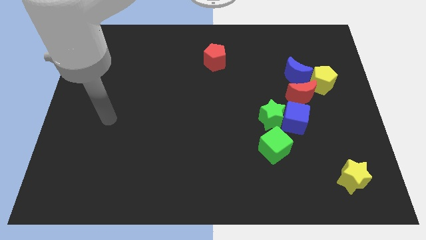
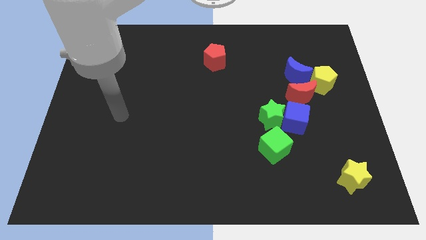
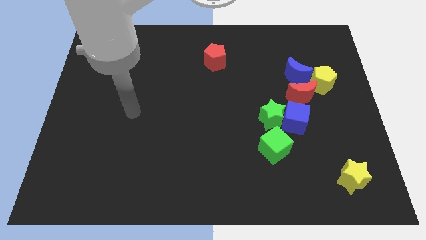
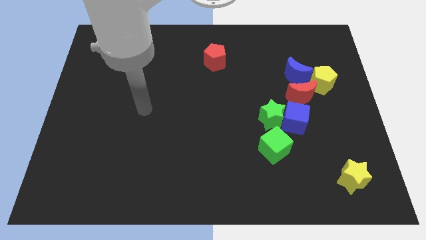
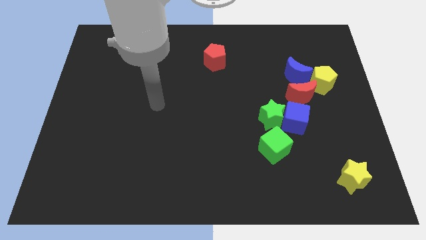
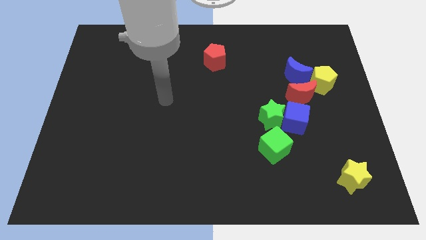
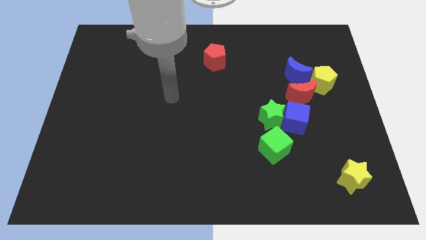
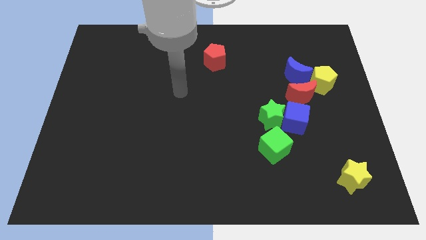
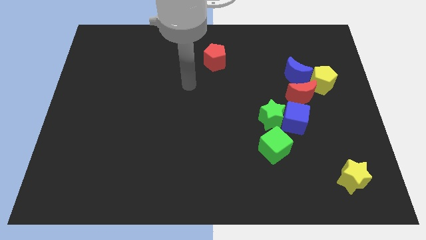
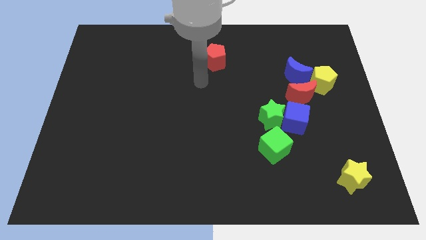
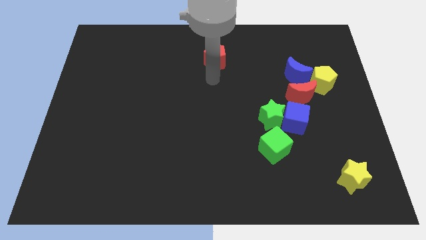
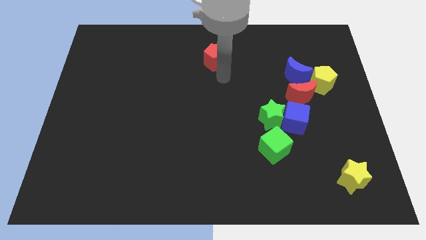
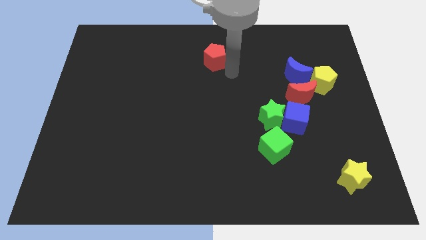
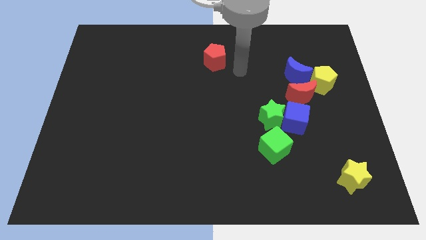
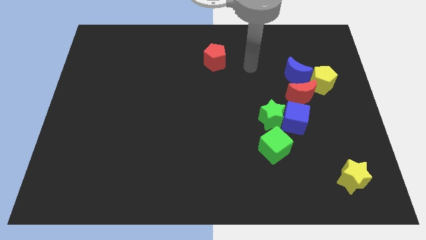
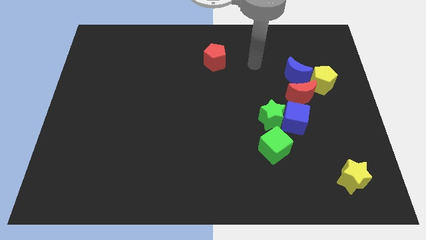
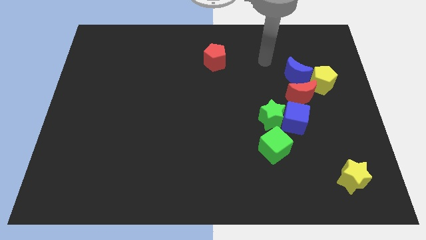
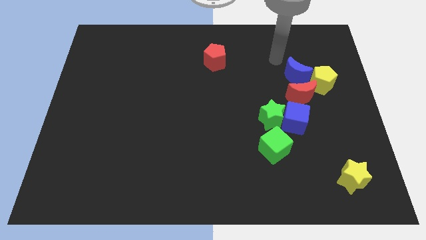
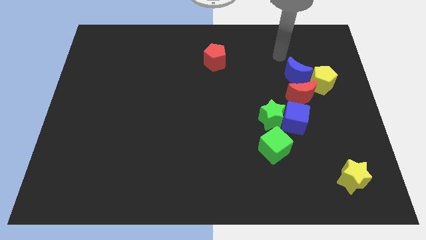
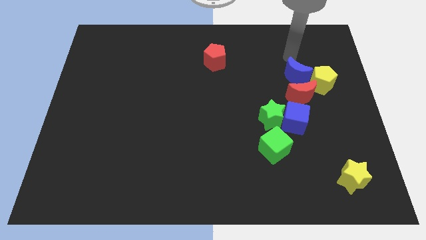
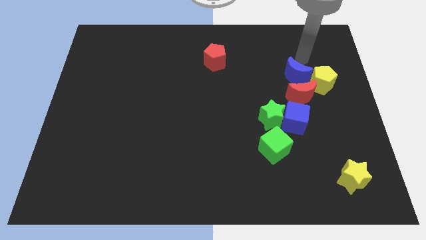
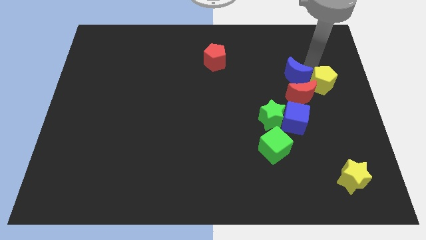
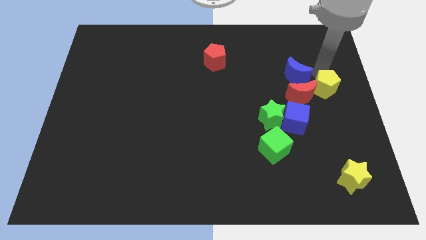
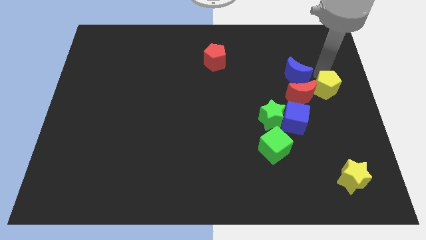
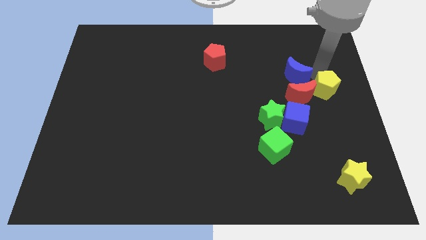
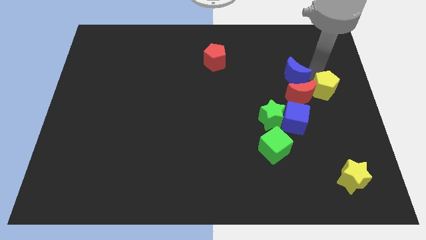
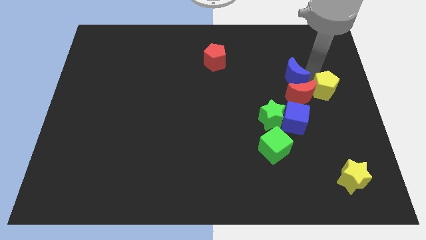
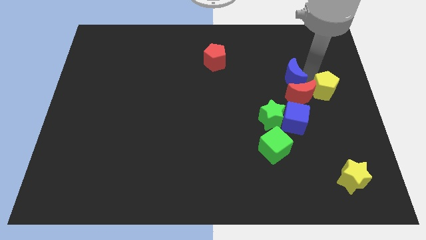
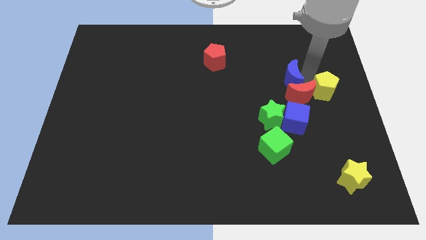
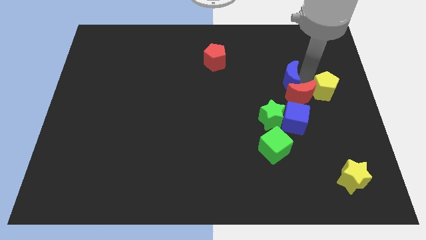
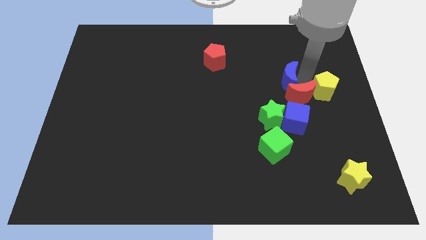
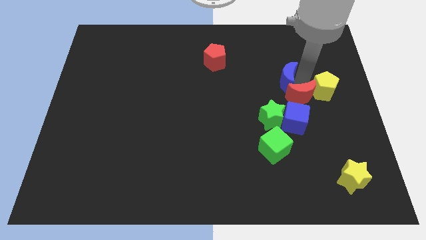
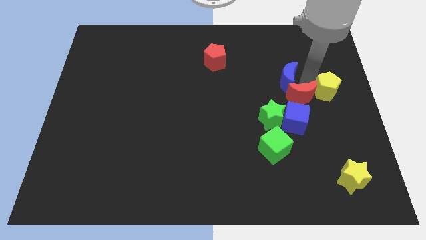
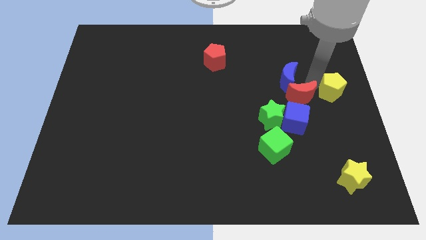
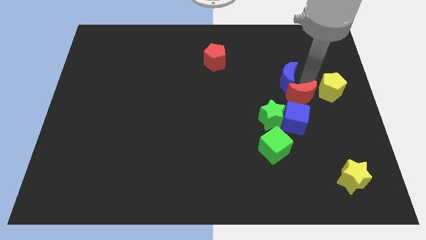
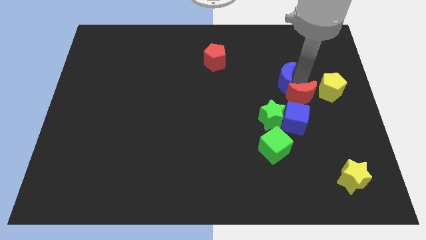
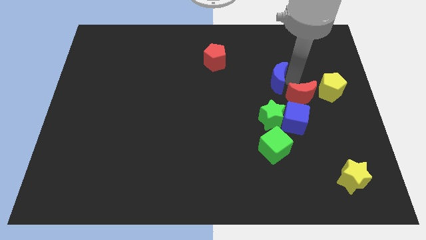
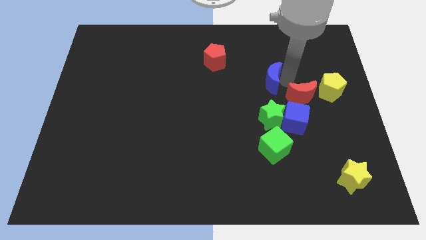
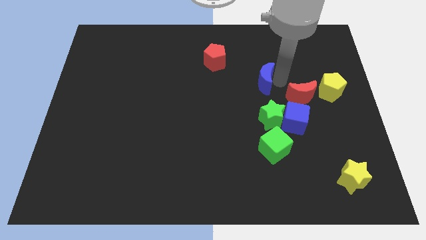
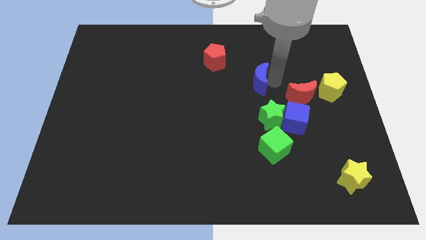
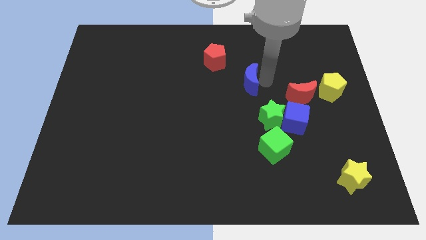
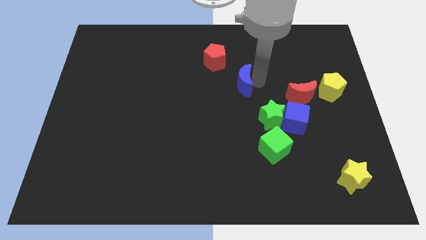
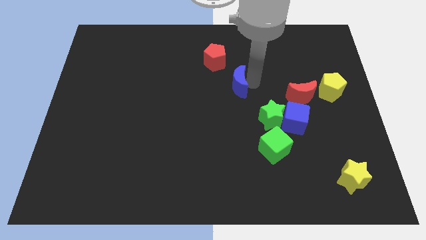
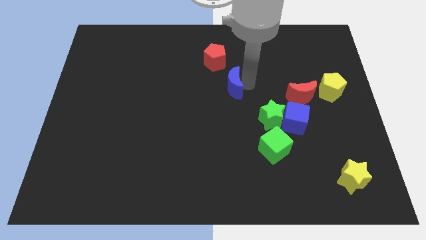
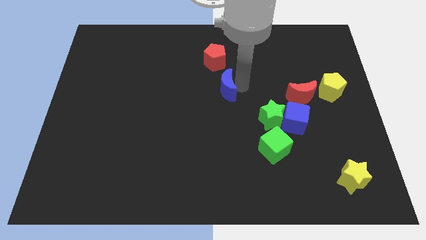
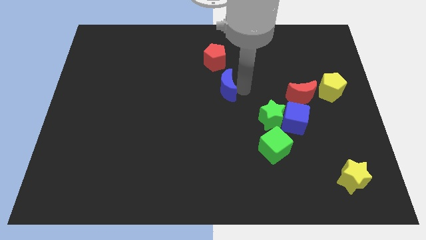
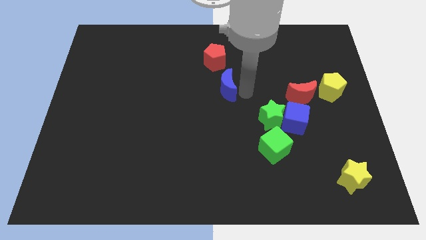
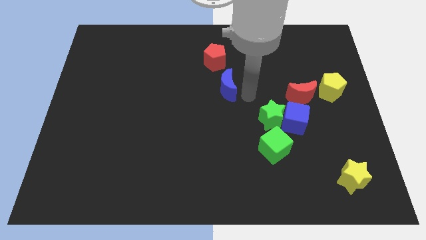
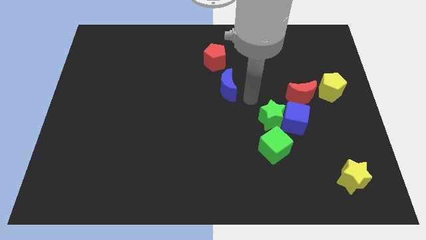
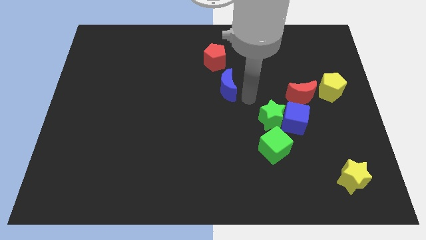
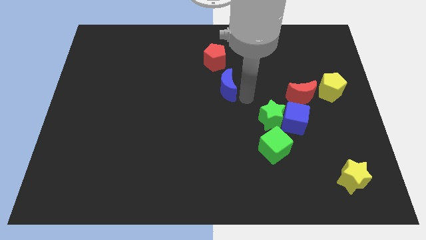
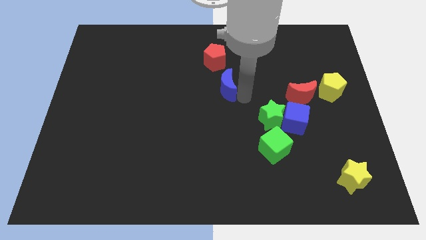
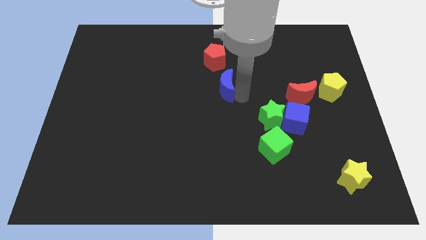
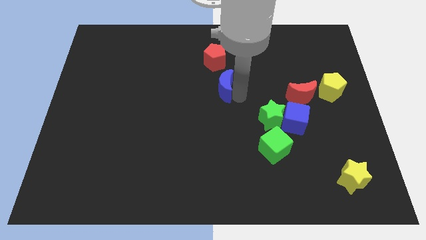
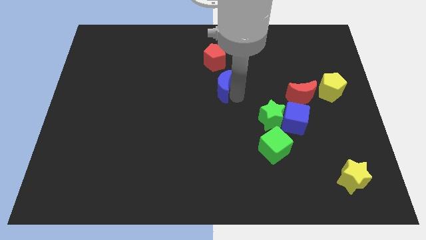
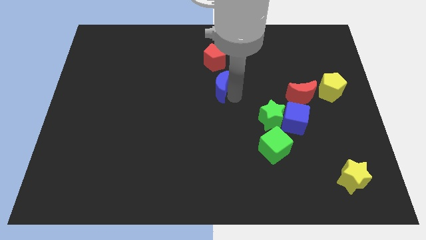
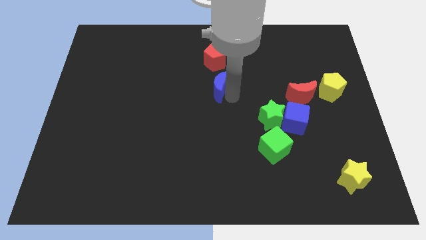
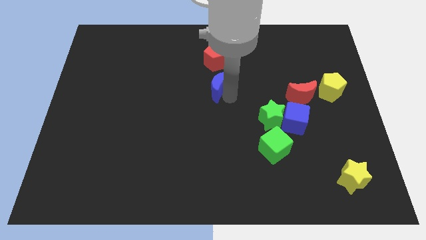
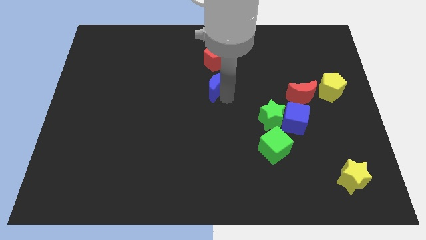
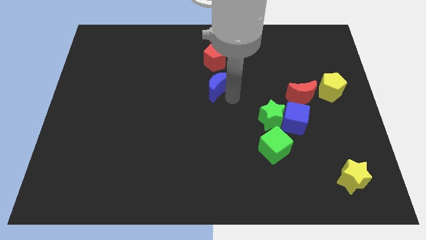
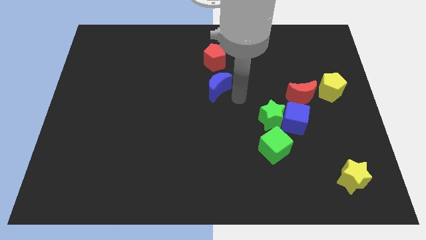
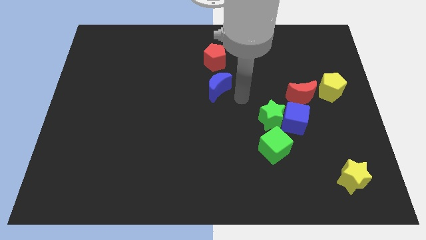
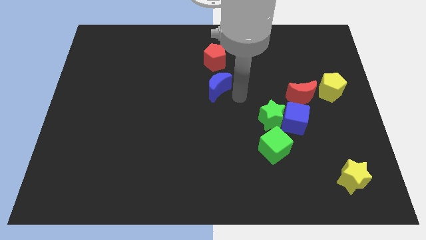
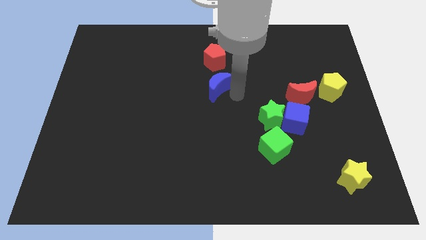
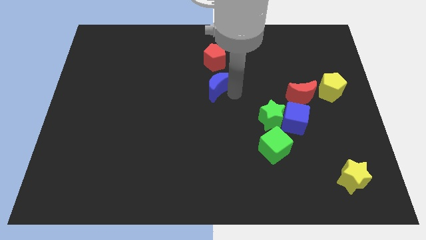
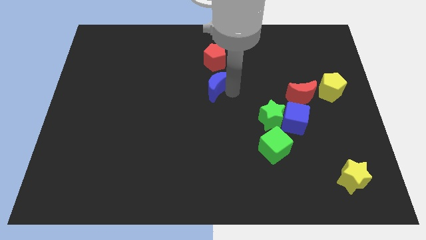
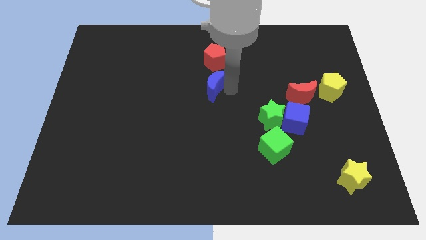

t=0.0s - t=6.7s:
slide the blue moon left

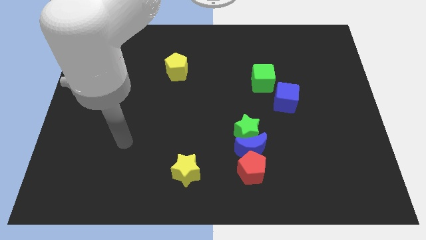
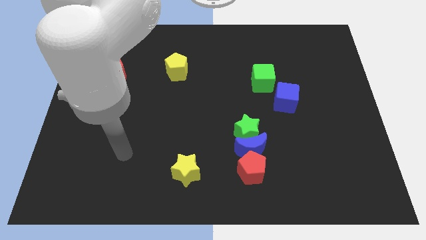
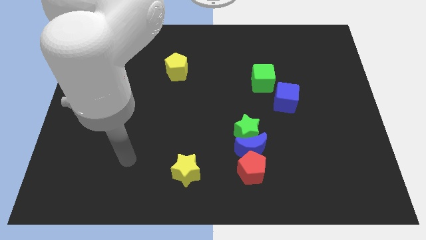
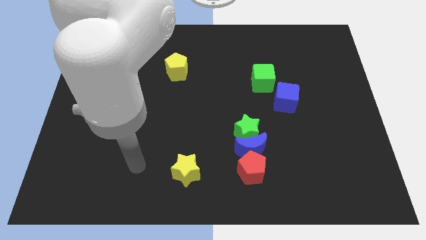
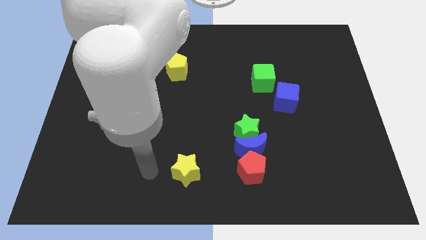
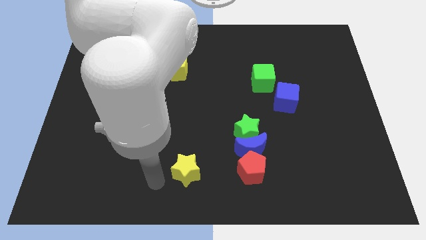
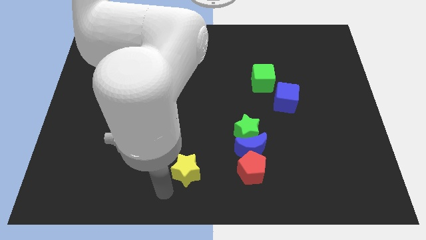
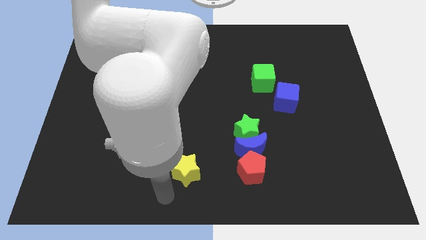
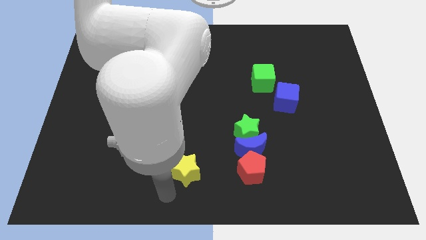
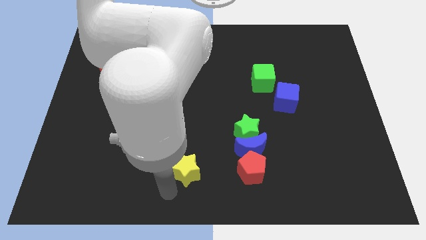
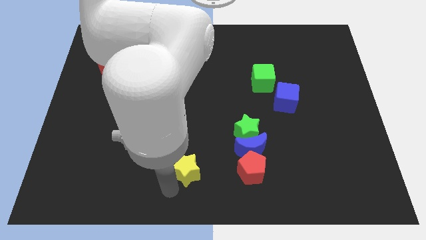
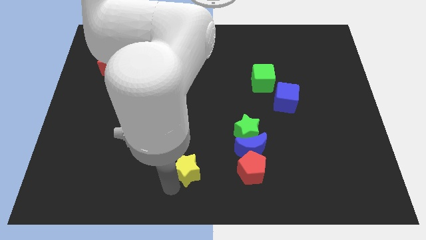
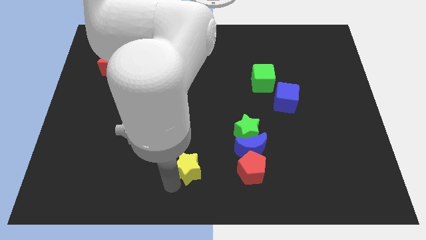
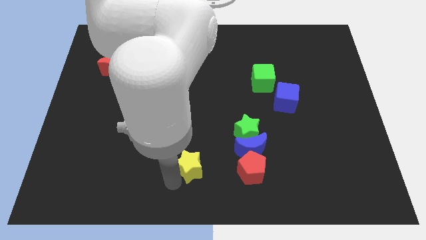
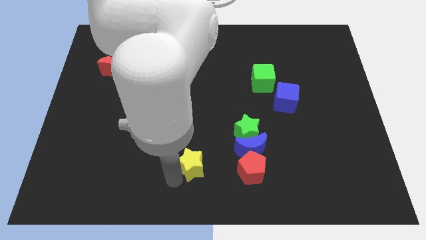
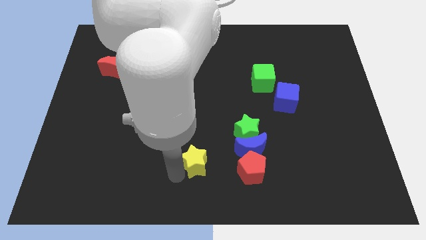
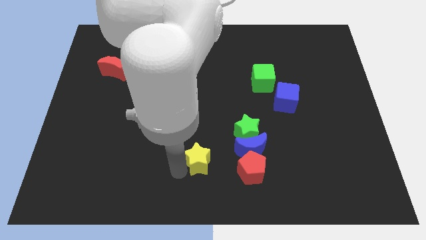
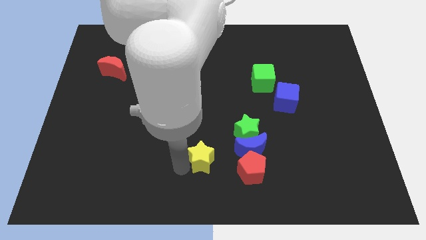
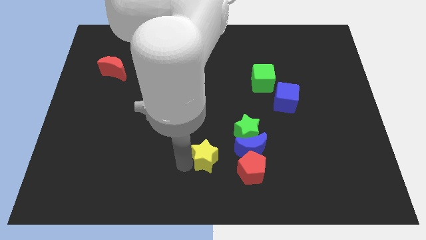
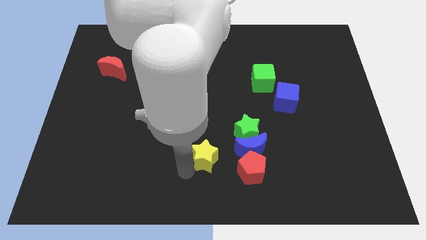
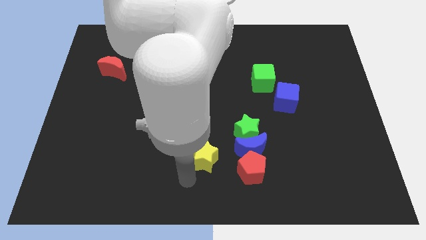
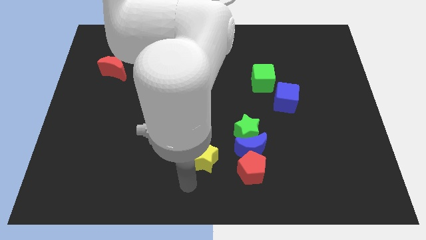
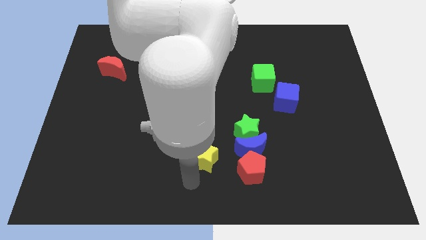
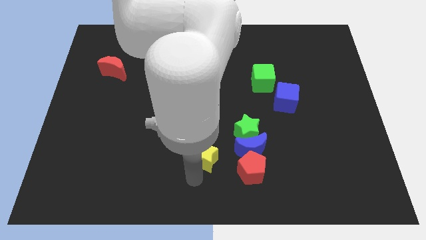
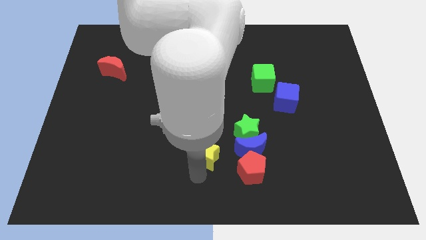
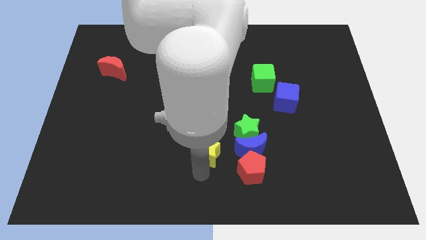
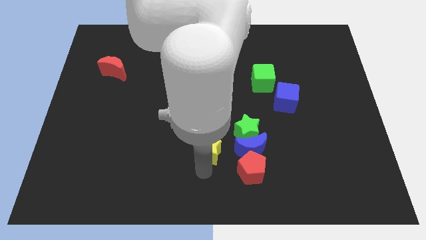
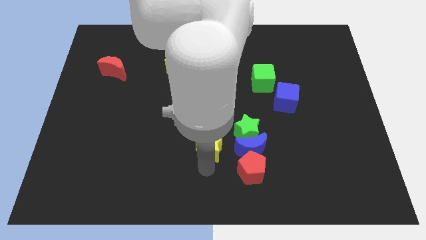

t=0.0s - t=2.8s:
move the yellow star a little up and to the right diagonally
